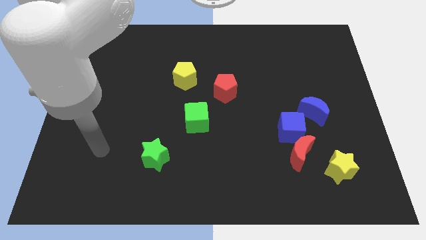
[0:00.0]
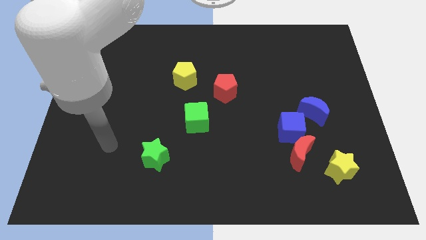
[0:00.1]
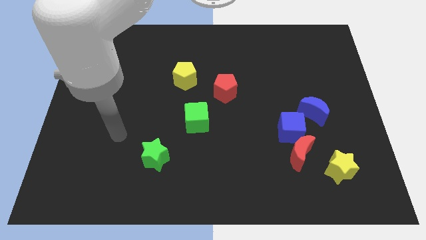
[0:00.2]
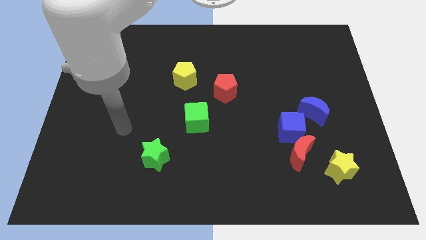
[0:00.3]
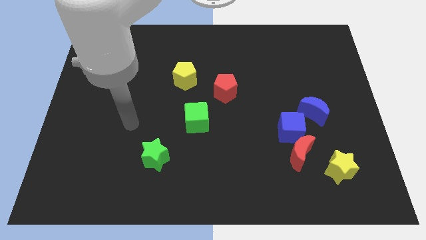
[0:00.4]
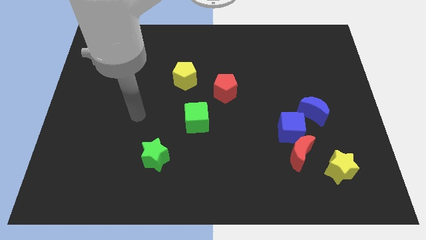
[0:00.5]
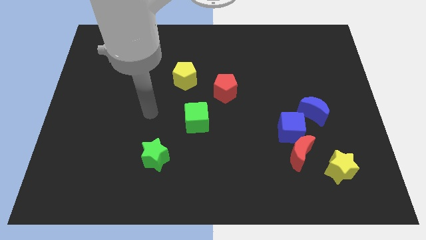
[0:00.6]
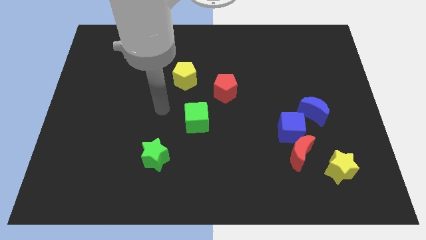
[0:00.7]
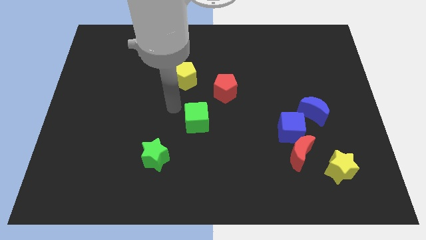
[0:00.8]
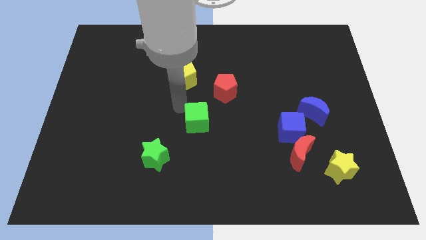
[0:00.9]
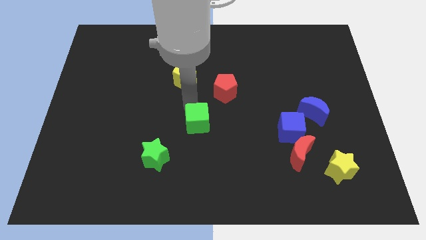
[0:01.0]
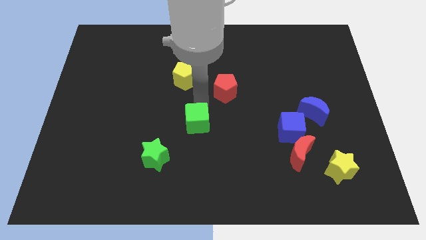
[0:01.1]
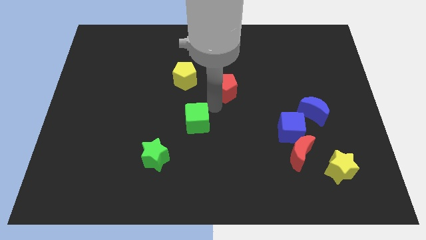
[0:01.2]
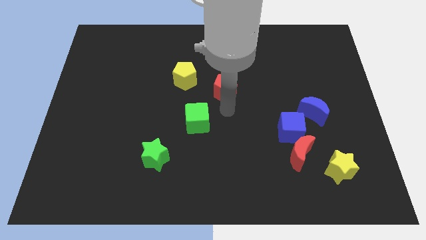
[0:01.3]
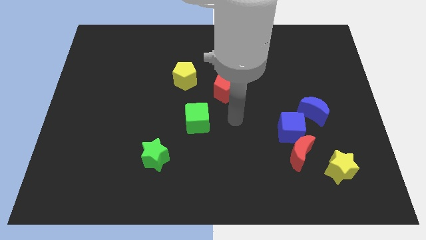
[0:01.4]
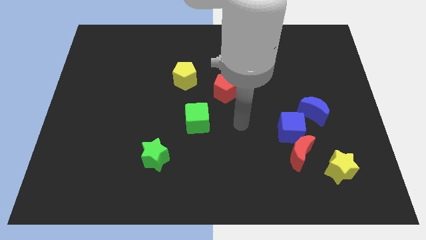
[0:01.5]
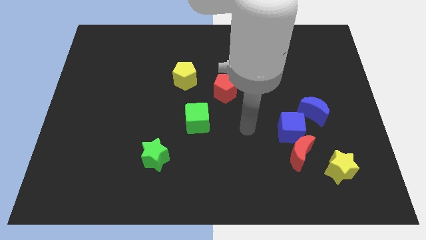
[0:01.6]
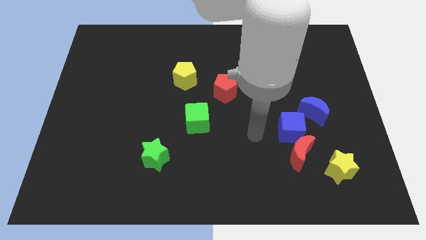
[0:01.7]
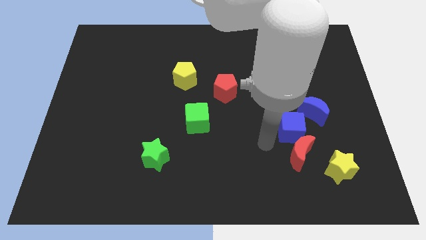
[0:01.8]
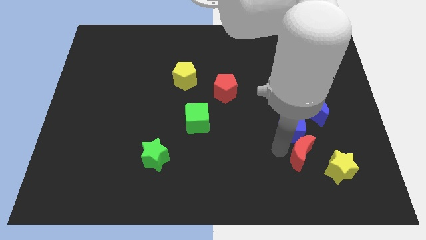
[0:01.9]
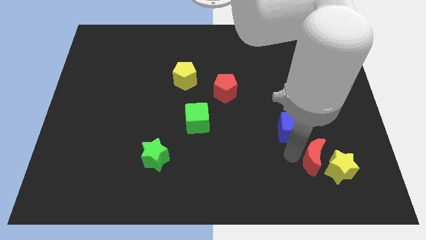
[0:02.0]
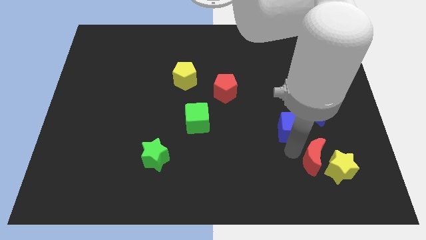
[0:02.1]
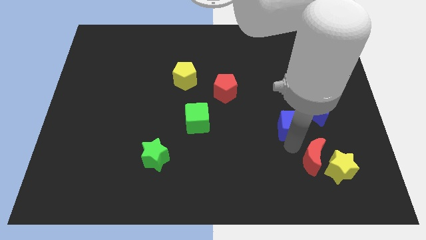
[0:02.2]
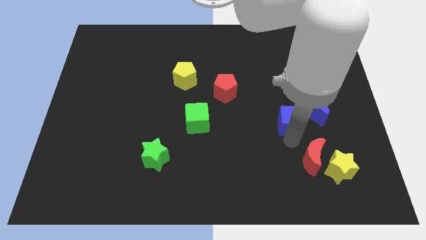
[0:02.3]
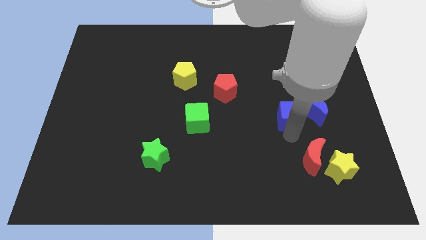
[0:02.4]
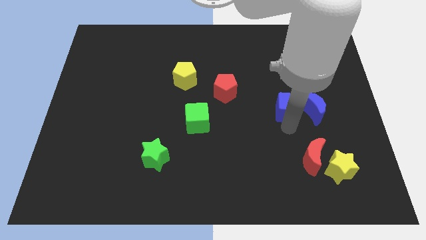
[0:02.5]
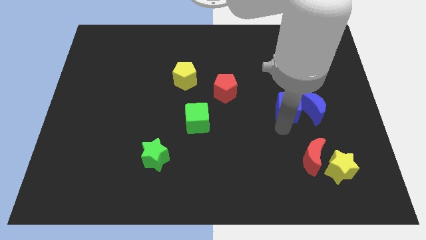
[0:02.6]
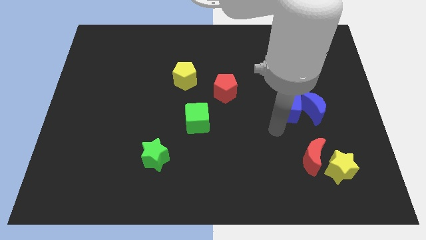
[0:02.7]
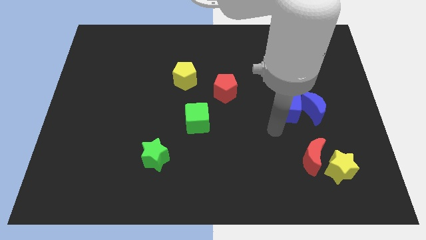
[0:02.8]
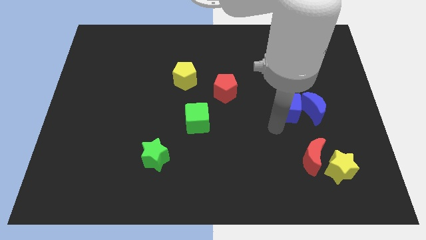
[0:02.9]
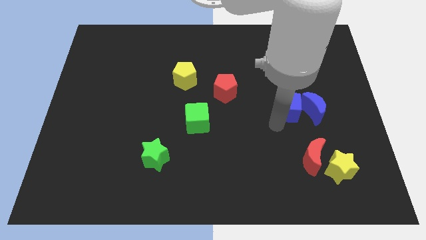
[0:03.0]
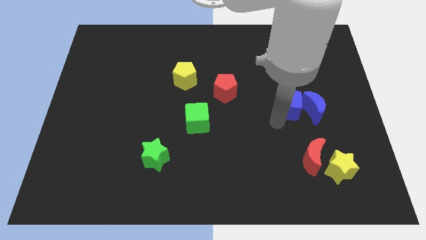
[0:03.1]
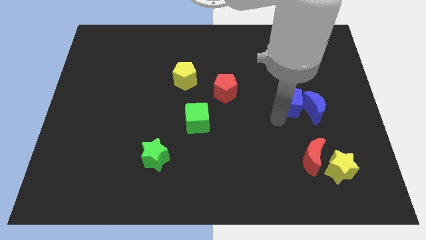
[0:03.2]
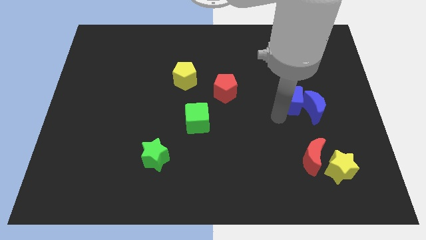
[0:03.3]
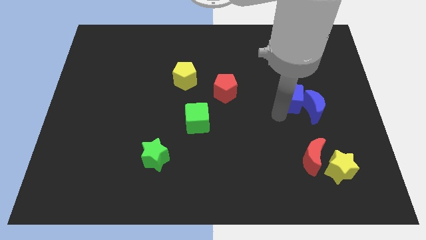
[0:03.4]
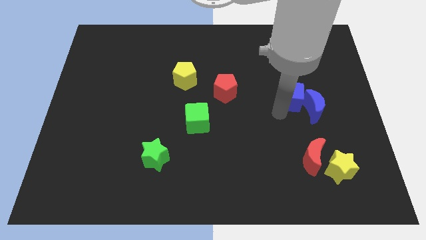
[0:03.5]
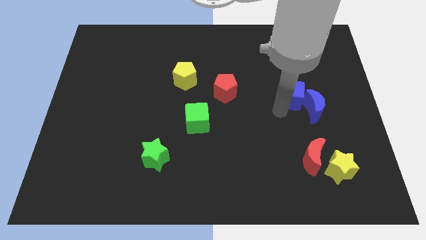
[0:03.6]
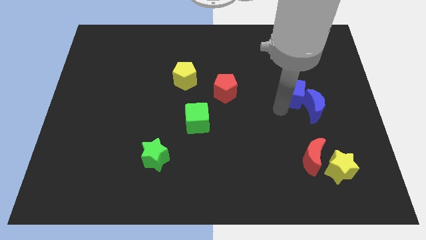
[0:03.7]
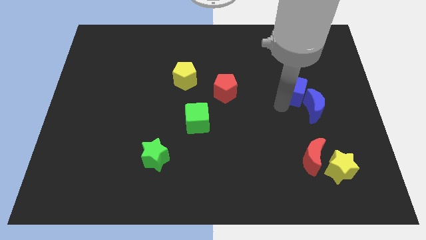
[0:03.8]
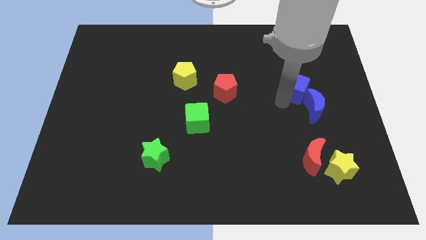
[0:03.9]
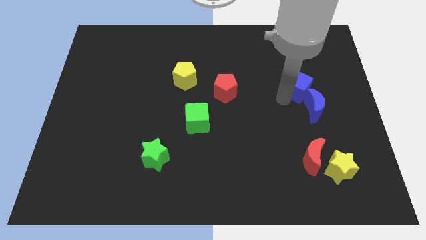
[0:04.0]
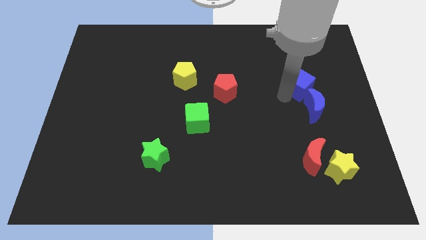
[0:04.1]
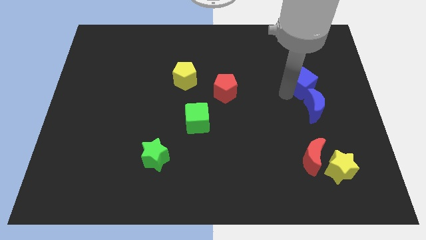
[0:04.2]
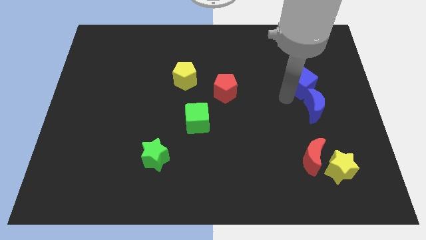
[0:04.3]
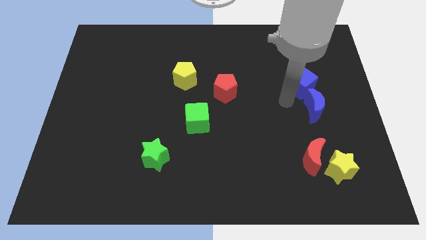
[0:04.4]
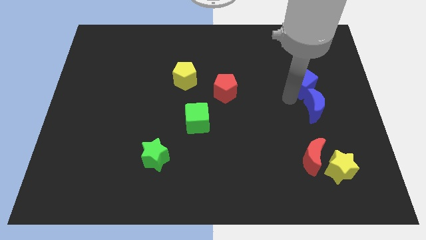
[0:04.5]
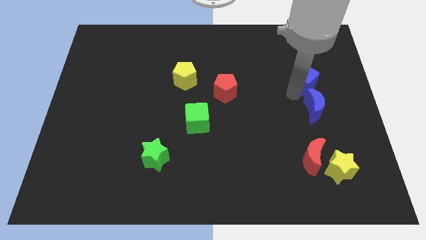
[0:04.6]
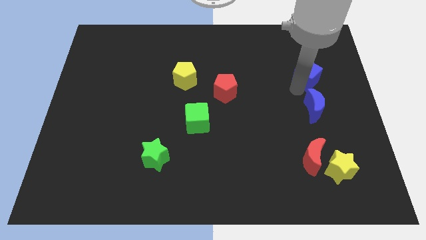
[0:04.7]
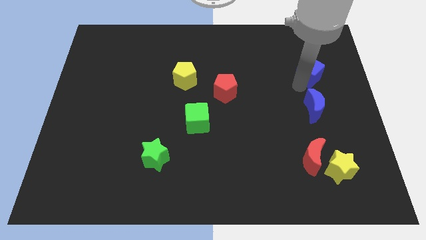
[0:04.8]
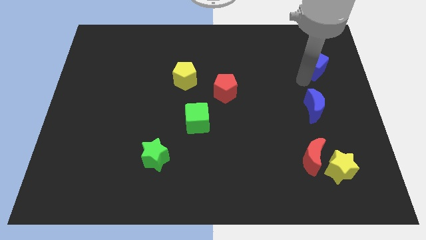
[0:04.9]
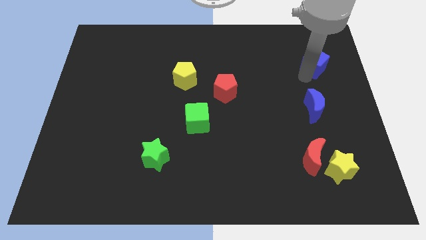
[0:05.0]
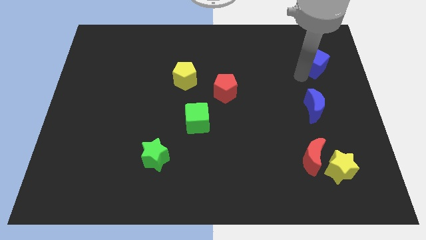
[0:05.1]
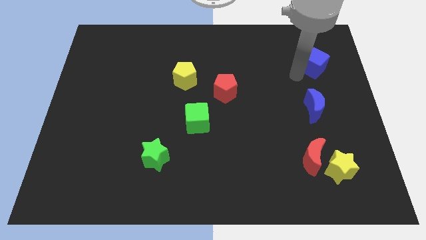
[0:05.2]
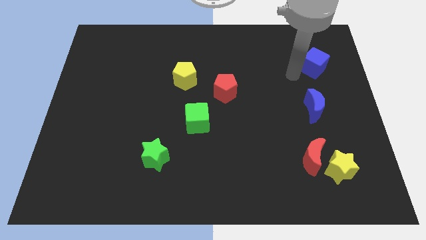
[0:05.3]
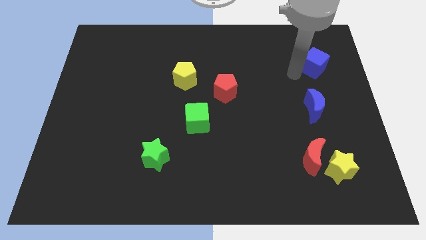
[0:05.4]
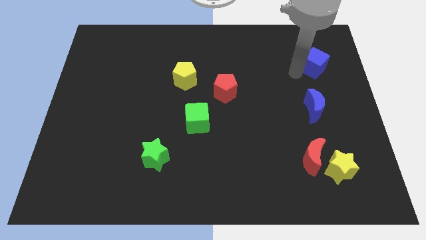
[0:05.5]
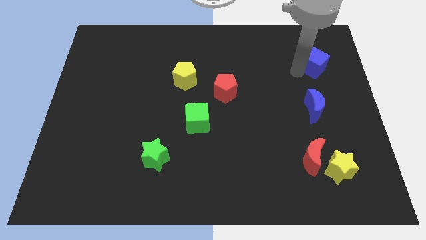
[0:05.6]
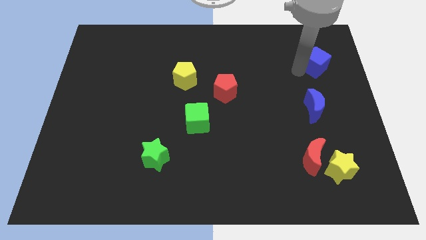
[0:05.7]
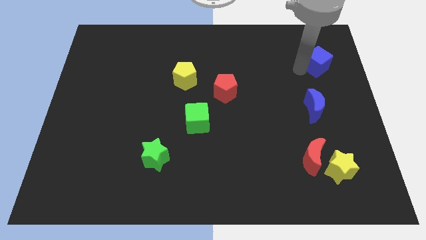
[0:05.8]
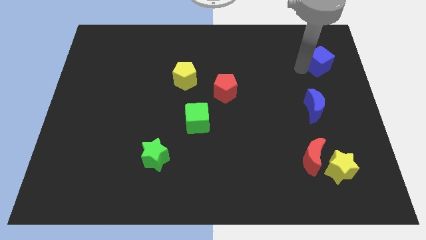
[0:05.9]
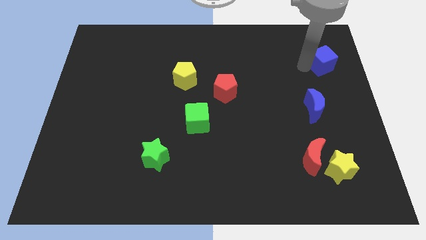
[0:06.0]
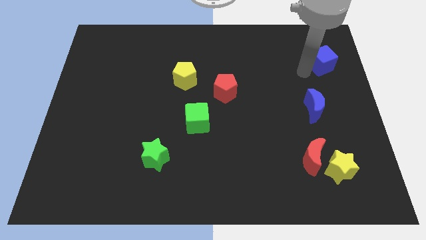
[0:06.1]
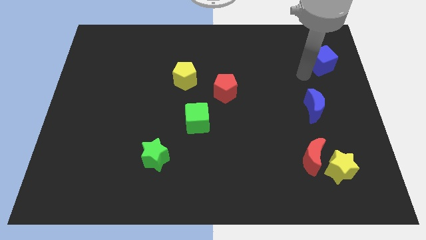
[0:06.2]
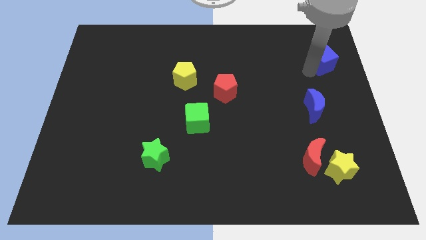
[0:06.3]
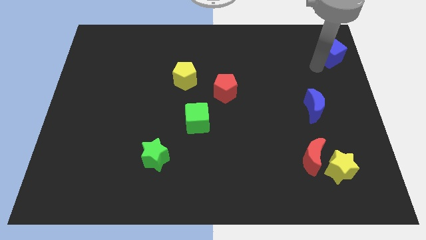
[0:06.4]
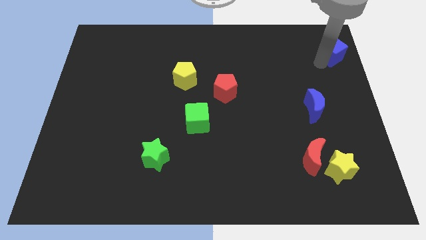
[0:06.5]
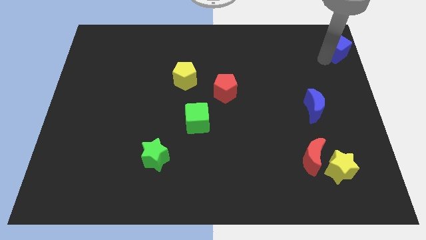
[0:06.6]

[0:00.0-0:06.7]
slide the blue cube to the top right of the board
